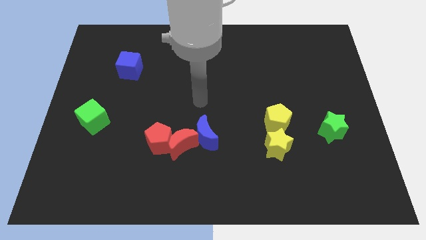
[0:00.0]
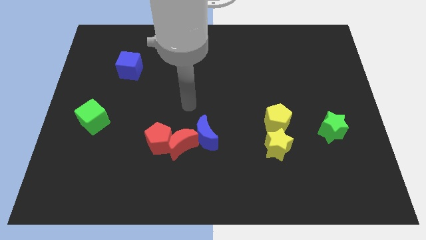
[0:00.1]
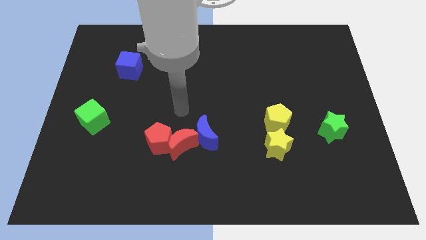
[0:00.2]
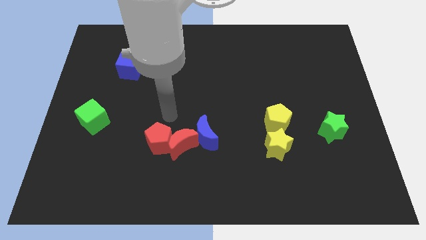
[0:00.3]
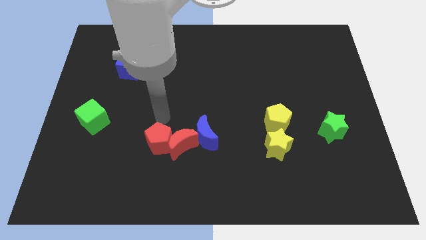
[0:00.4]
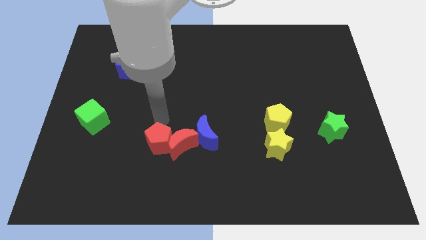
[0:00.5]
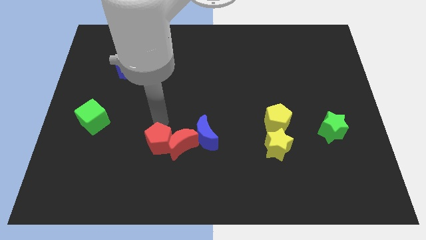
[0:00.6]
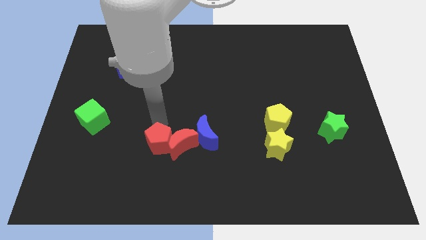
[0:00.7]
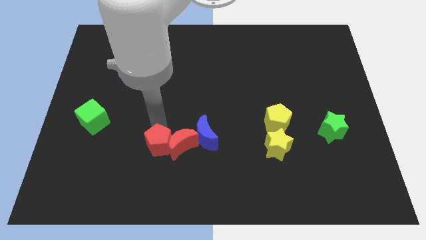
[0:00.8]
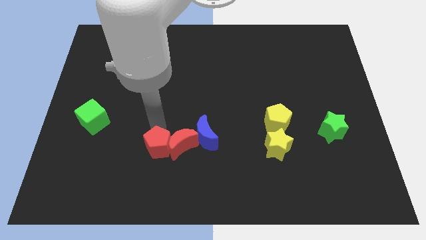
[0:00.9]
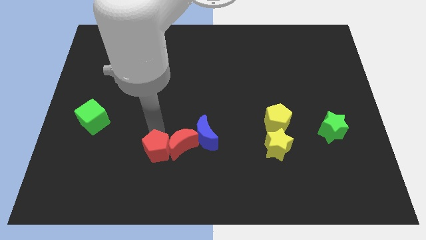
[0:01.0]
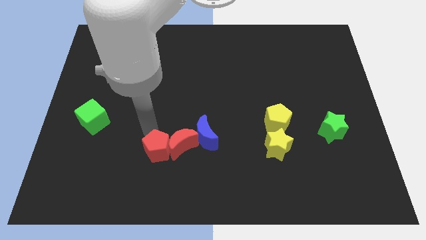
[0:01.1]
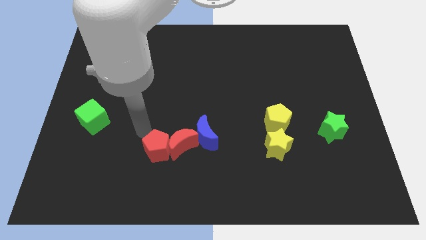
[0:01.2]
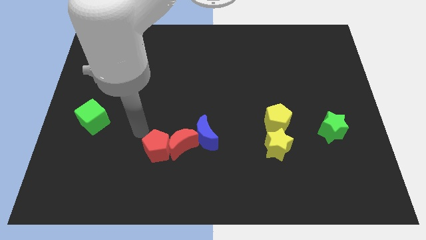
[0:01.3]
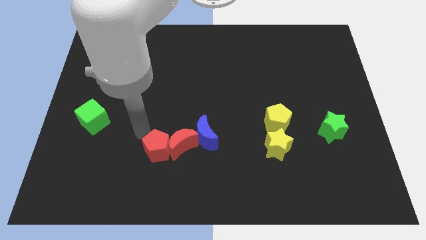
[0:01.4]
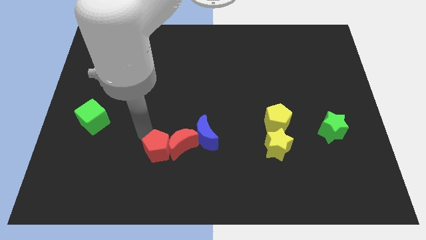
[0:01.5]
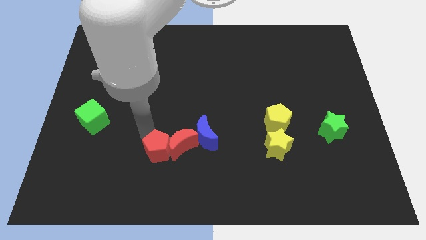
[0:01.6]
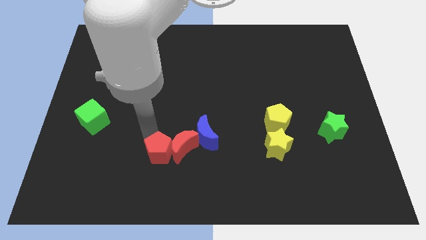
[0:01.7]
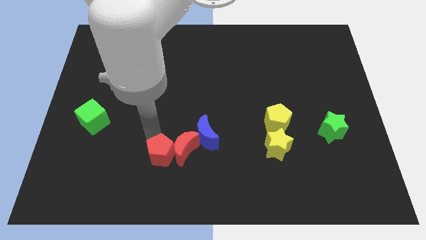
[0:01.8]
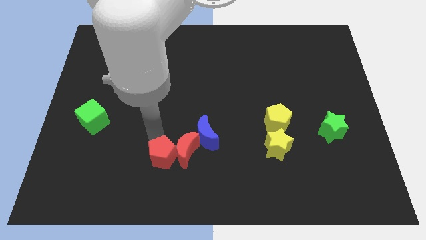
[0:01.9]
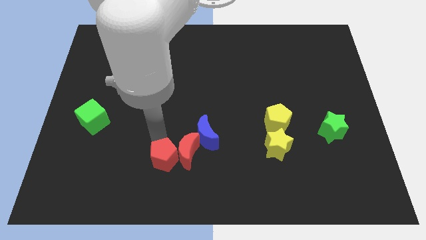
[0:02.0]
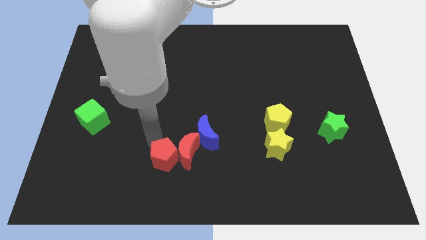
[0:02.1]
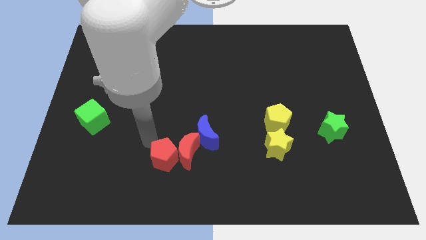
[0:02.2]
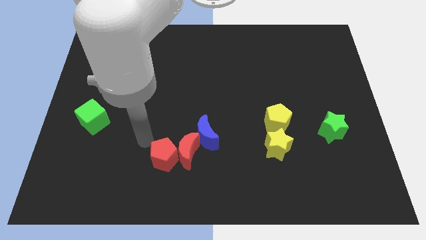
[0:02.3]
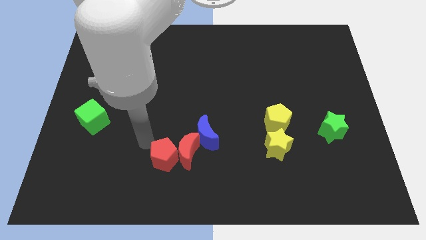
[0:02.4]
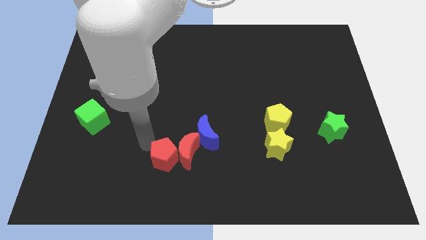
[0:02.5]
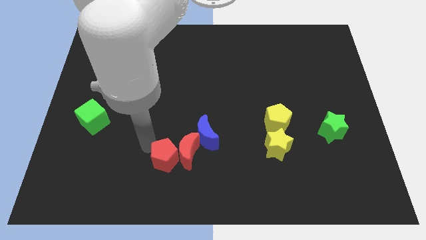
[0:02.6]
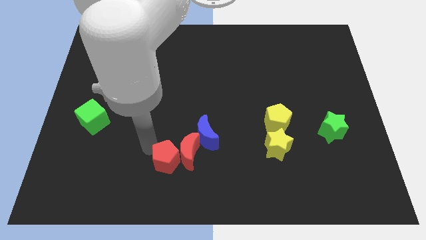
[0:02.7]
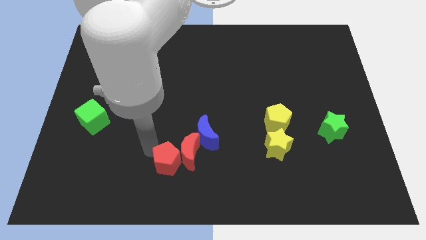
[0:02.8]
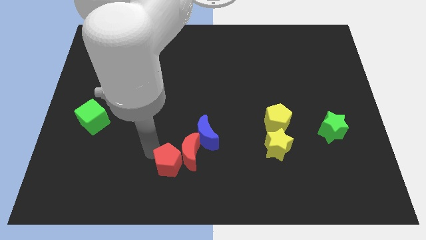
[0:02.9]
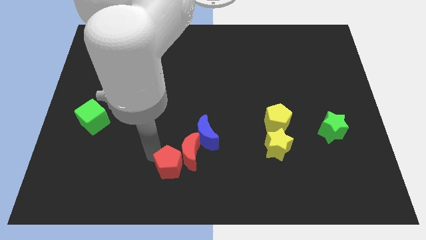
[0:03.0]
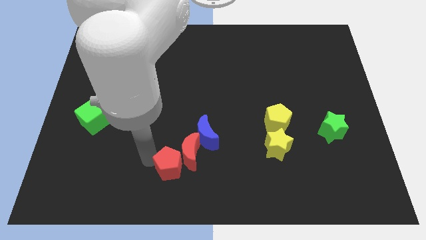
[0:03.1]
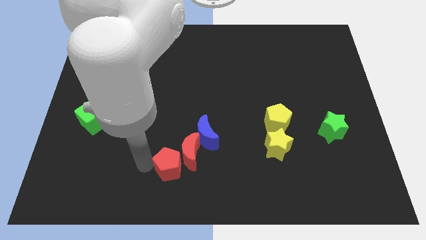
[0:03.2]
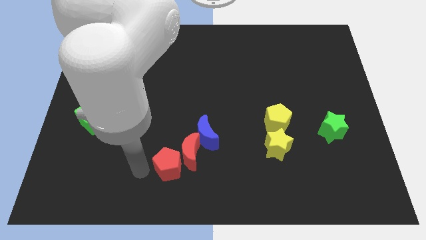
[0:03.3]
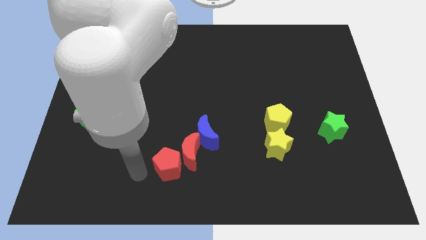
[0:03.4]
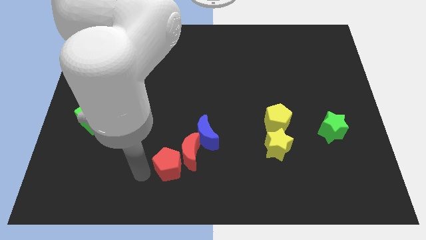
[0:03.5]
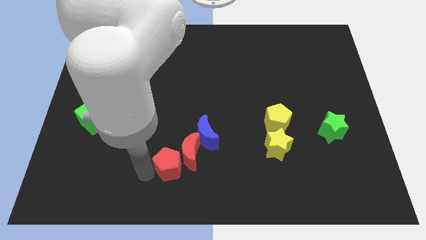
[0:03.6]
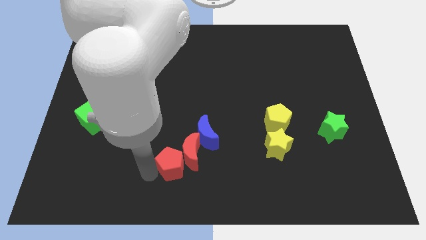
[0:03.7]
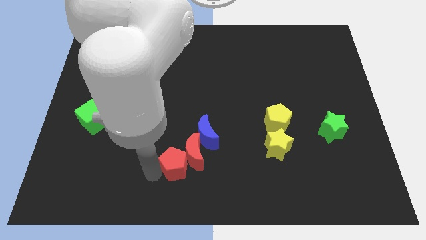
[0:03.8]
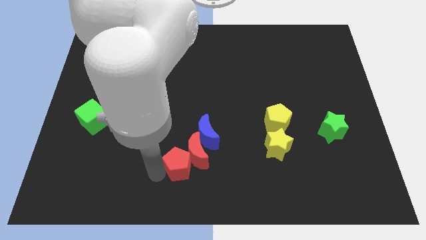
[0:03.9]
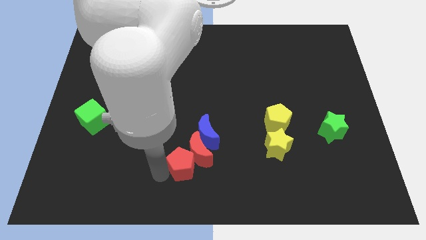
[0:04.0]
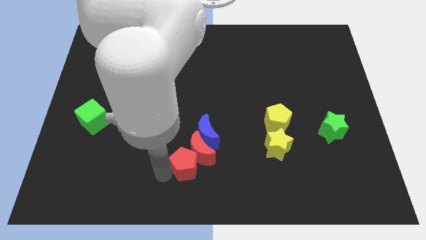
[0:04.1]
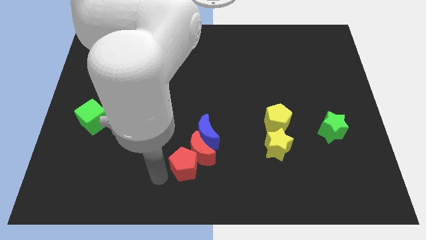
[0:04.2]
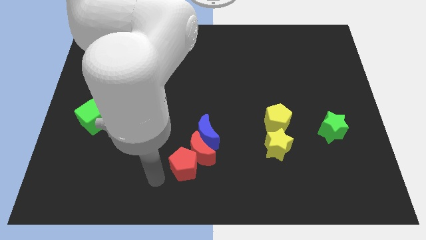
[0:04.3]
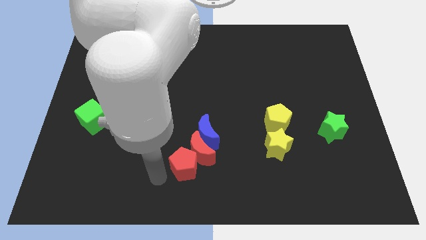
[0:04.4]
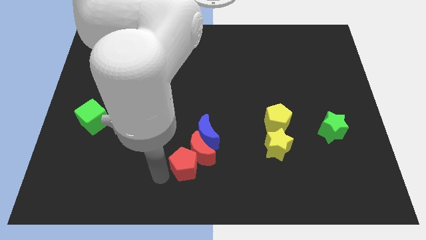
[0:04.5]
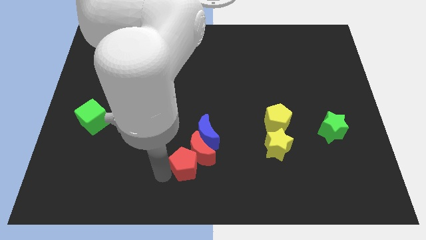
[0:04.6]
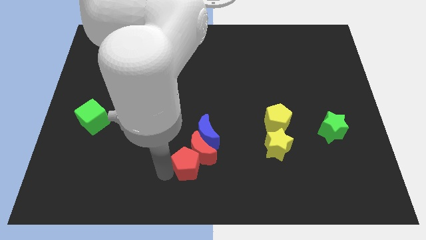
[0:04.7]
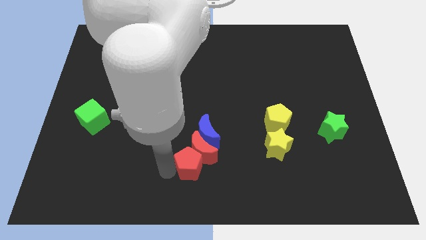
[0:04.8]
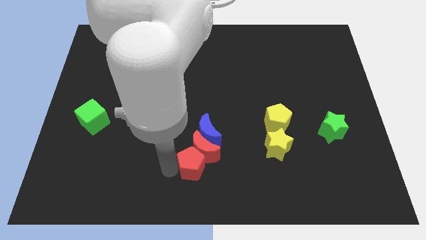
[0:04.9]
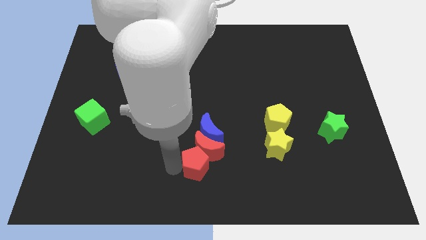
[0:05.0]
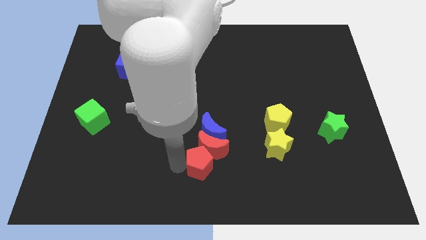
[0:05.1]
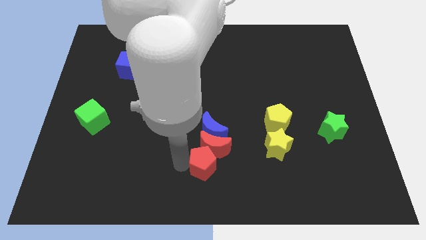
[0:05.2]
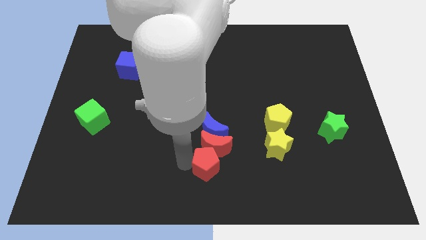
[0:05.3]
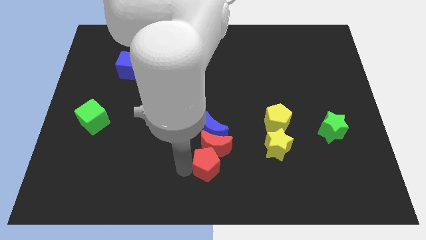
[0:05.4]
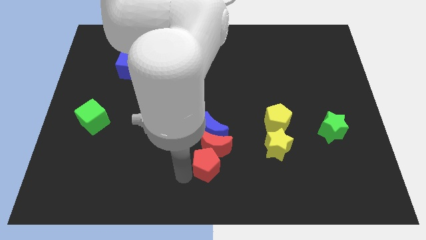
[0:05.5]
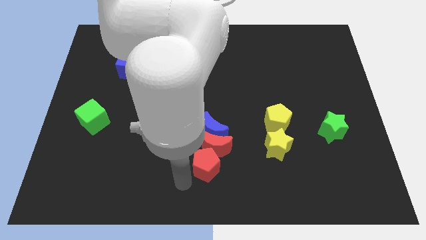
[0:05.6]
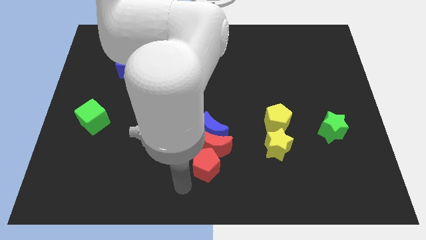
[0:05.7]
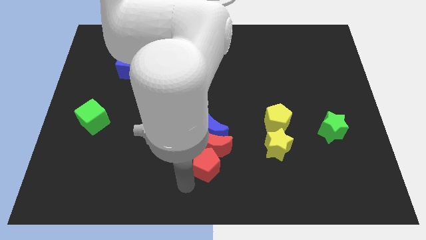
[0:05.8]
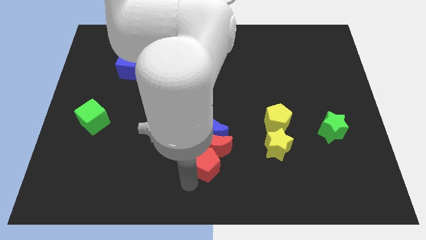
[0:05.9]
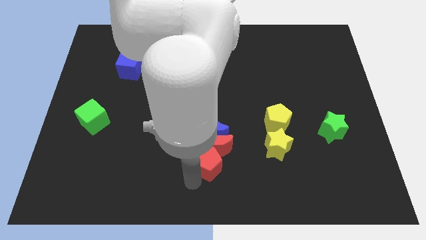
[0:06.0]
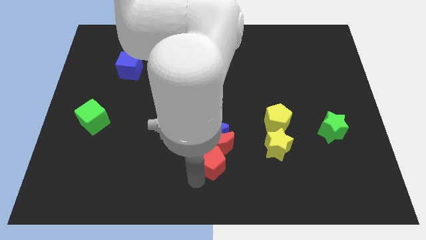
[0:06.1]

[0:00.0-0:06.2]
put the red pentagon just left of the yellow star

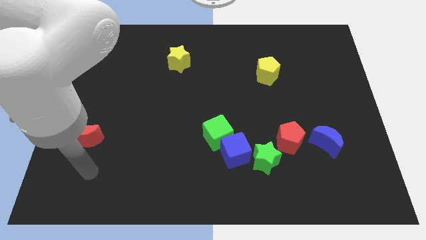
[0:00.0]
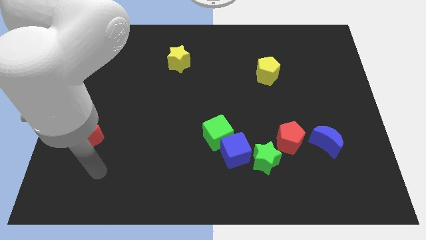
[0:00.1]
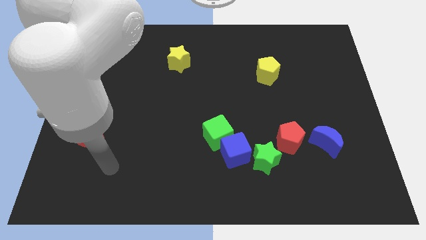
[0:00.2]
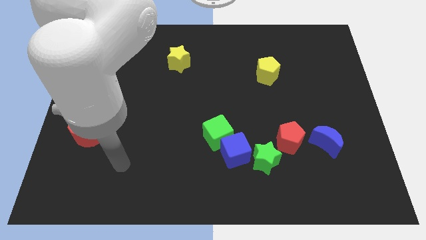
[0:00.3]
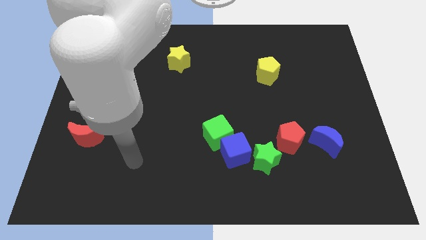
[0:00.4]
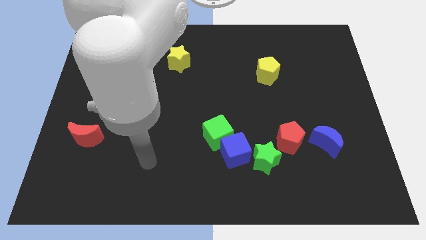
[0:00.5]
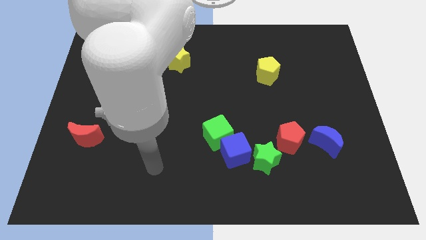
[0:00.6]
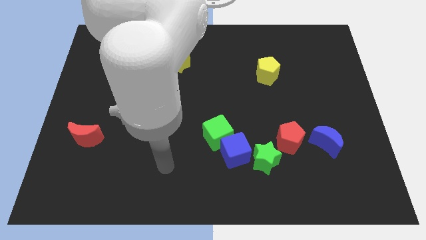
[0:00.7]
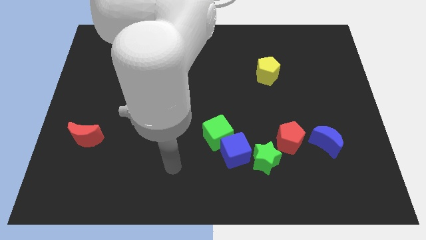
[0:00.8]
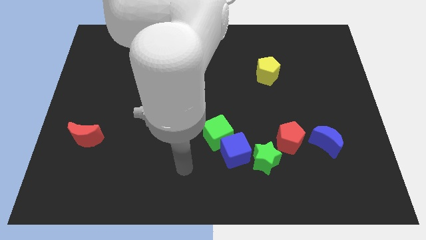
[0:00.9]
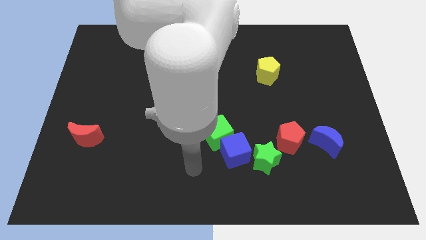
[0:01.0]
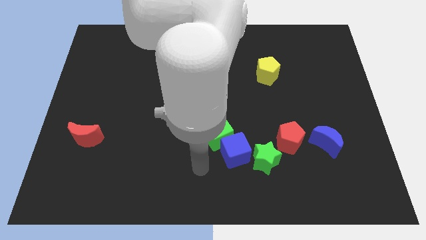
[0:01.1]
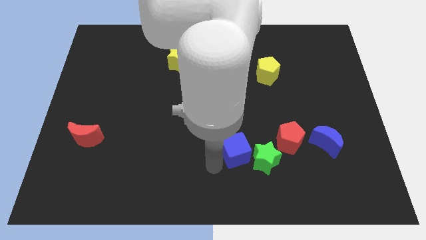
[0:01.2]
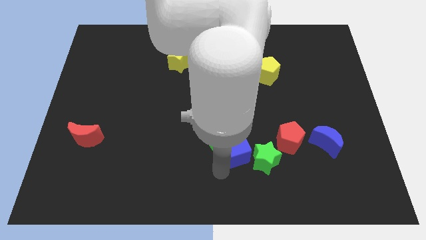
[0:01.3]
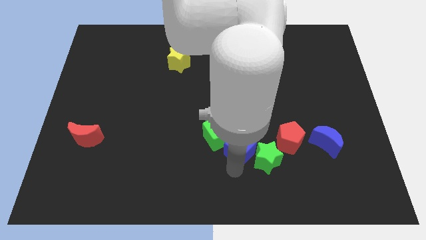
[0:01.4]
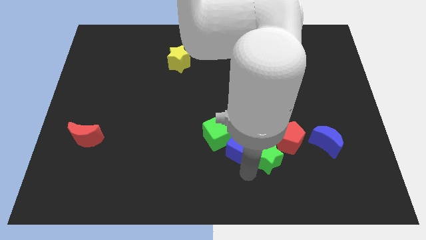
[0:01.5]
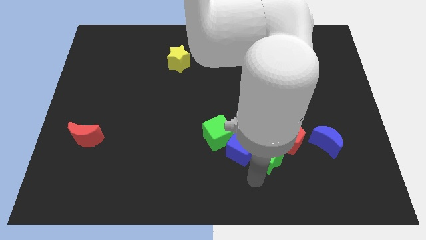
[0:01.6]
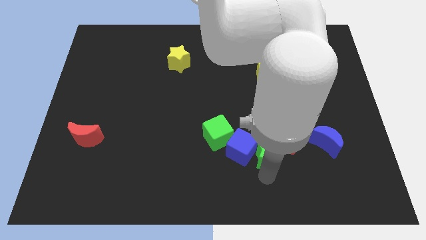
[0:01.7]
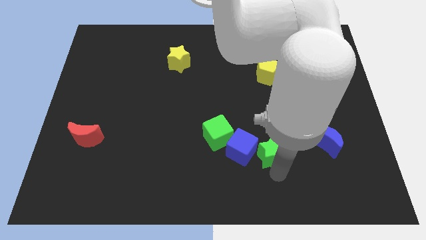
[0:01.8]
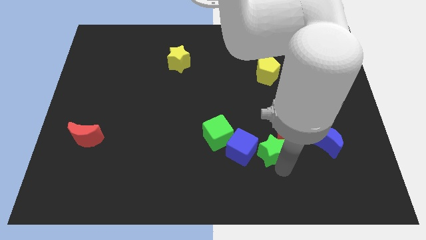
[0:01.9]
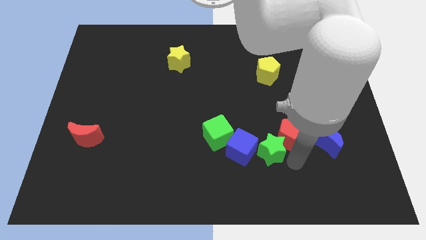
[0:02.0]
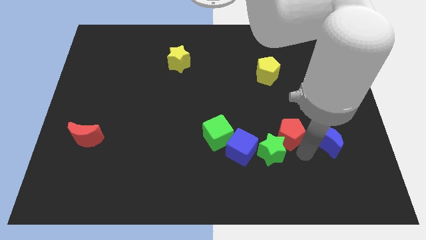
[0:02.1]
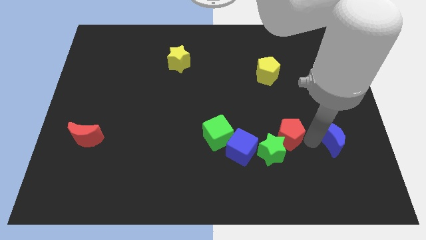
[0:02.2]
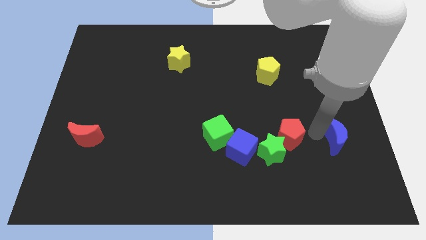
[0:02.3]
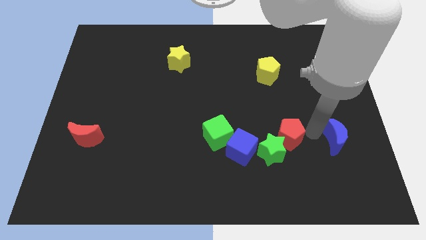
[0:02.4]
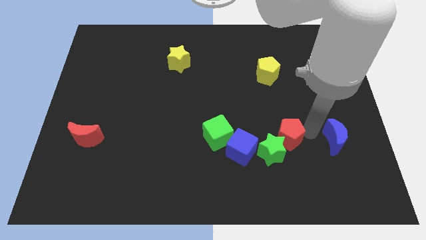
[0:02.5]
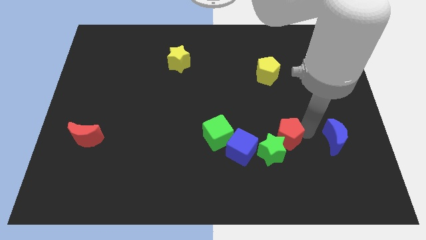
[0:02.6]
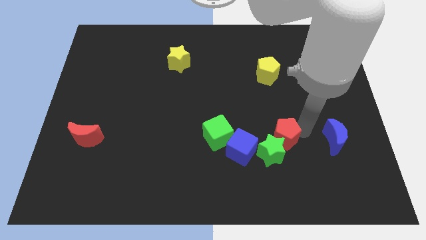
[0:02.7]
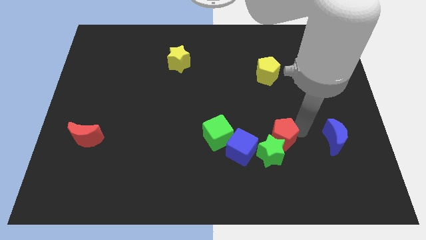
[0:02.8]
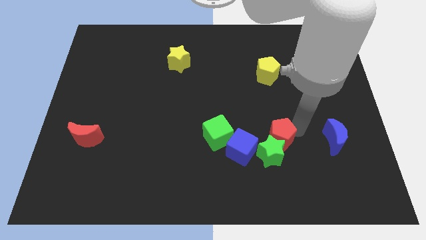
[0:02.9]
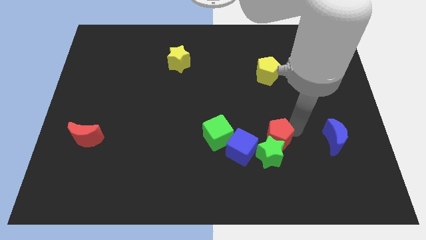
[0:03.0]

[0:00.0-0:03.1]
slide the red pentagon to the top left of the green star
